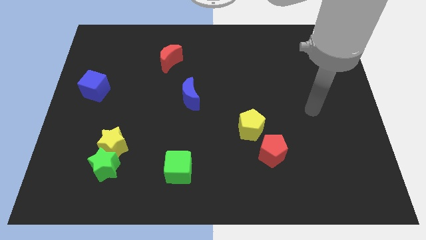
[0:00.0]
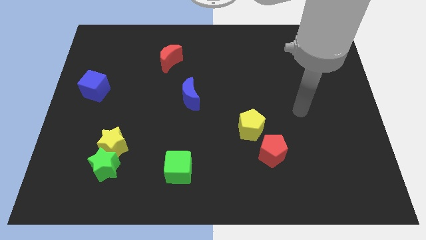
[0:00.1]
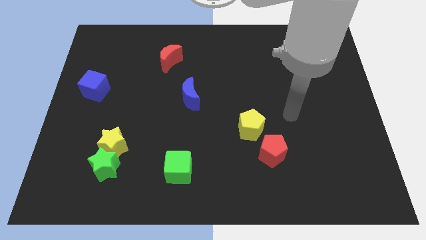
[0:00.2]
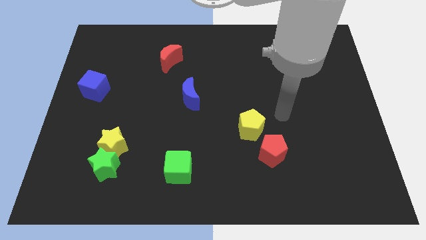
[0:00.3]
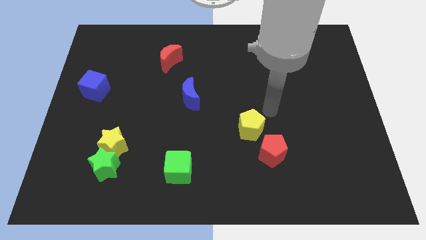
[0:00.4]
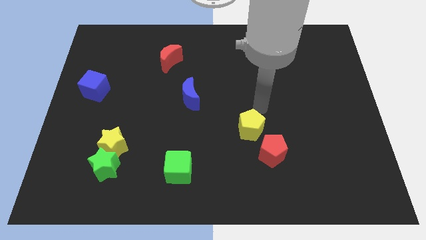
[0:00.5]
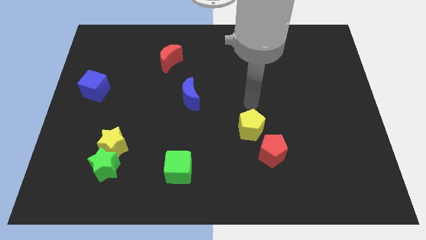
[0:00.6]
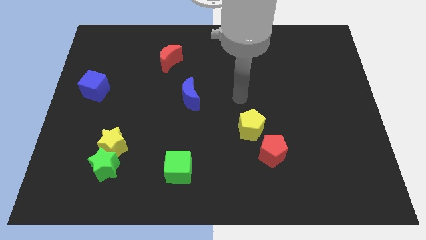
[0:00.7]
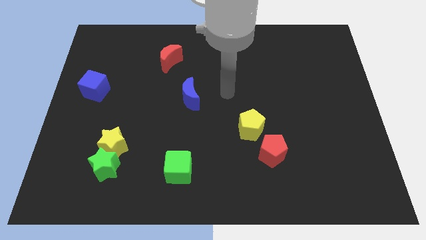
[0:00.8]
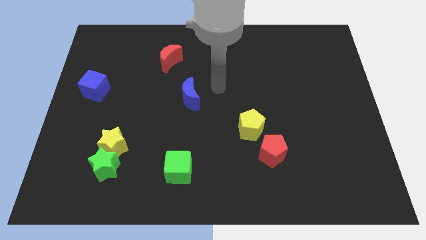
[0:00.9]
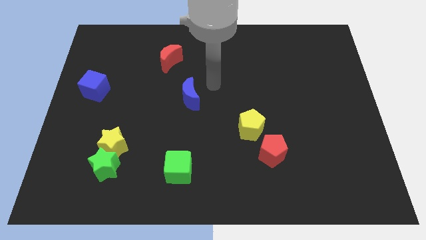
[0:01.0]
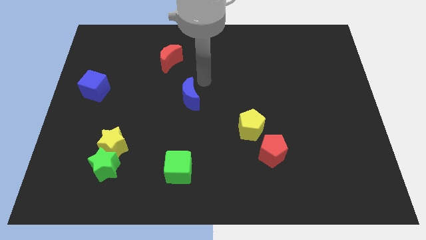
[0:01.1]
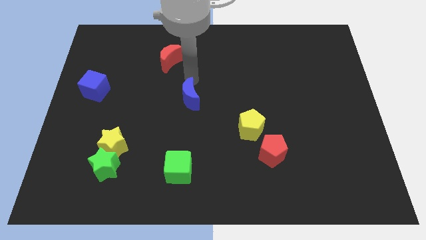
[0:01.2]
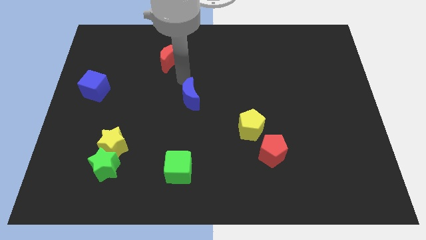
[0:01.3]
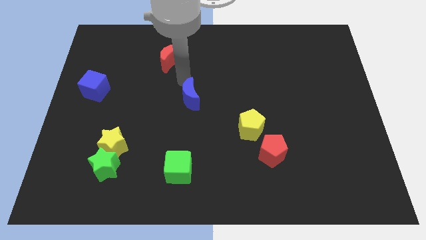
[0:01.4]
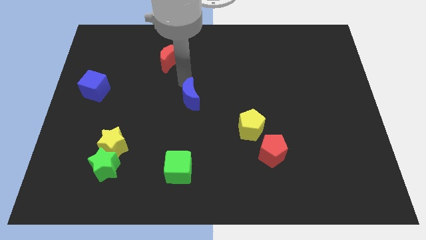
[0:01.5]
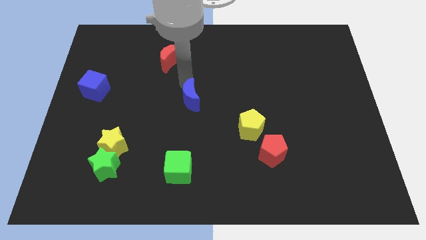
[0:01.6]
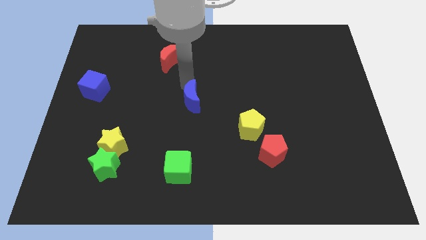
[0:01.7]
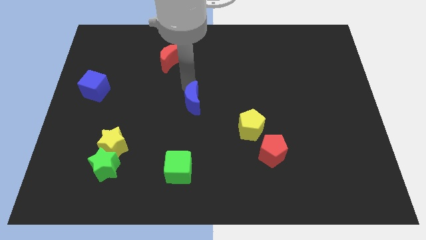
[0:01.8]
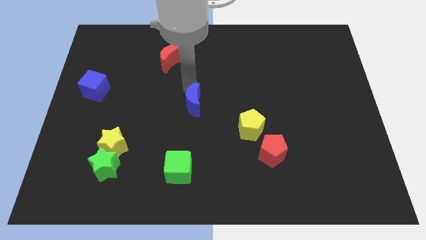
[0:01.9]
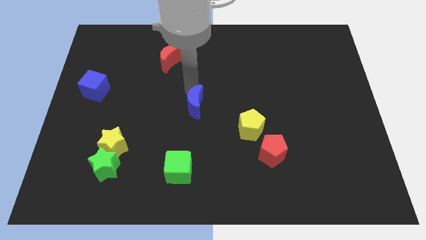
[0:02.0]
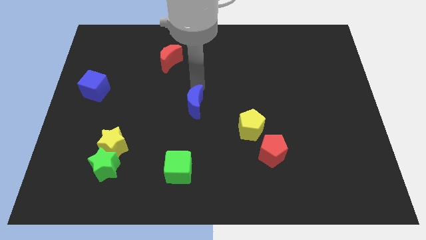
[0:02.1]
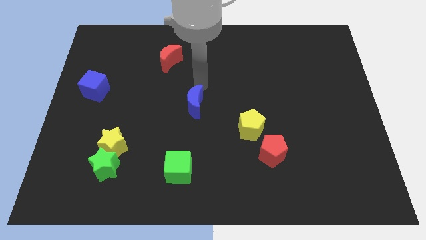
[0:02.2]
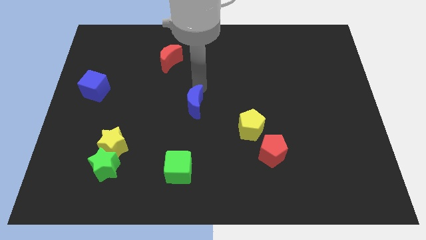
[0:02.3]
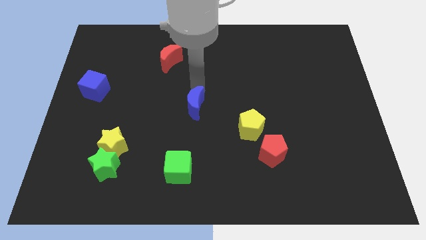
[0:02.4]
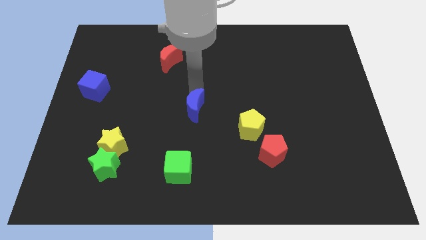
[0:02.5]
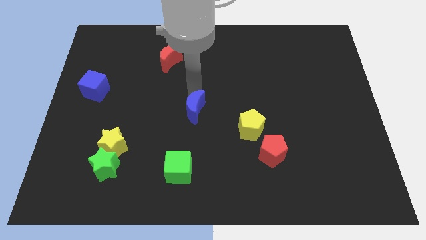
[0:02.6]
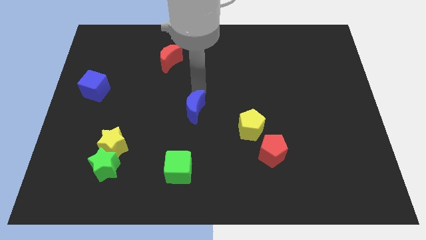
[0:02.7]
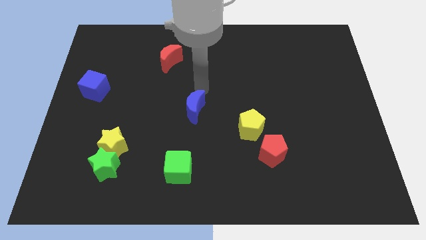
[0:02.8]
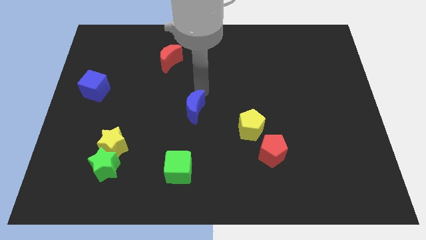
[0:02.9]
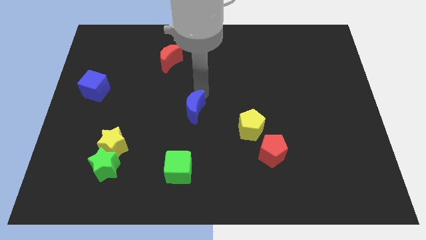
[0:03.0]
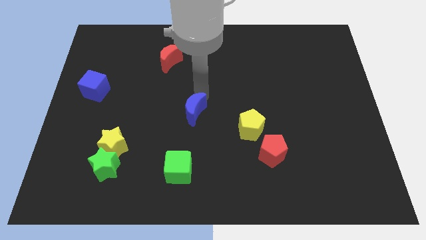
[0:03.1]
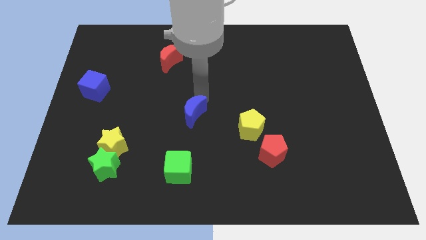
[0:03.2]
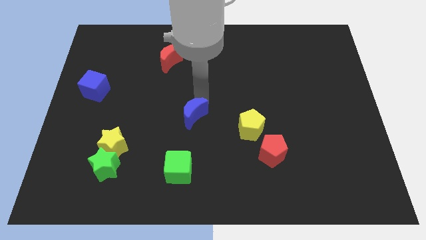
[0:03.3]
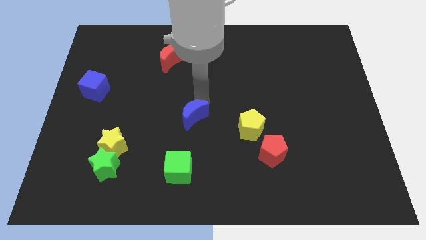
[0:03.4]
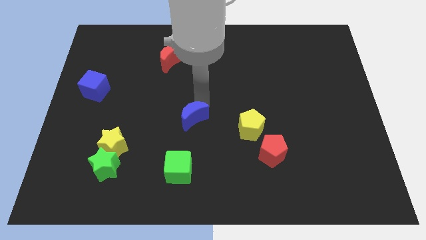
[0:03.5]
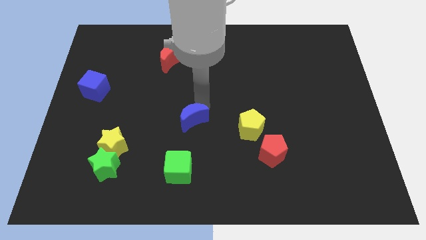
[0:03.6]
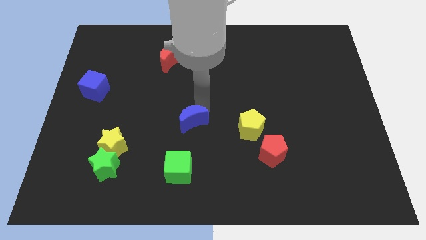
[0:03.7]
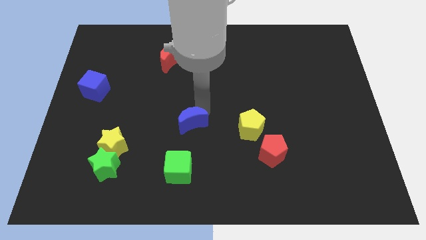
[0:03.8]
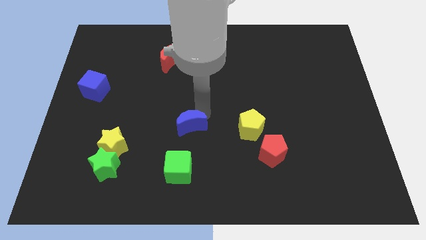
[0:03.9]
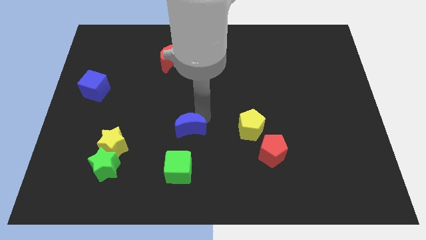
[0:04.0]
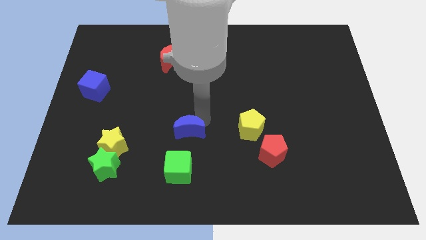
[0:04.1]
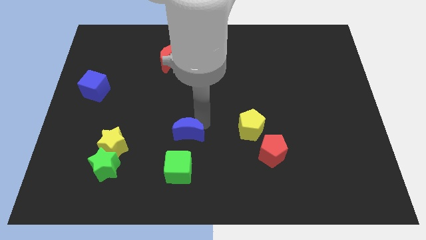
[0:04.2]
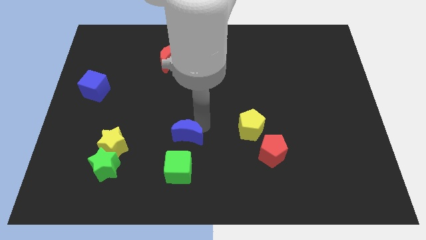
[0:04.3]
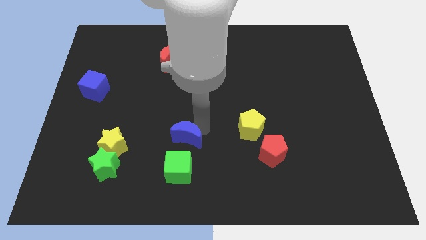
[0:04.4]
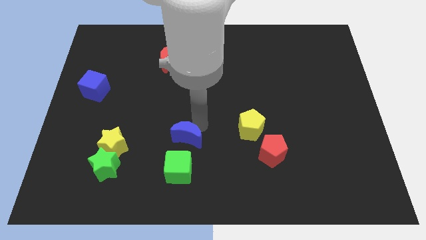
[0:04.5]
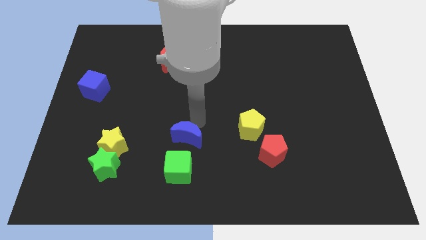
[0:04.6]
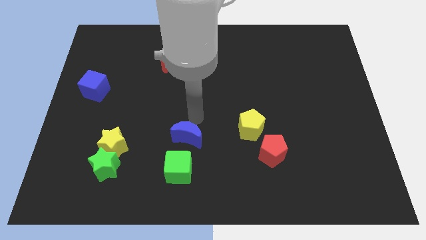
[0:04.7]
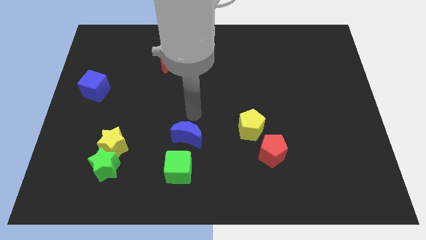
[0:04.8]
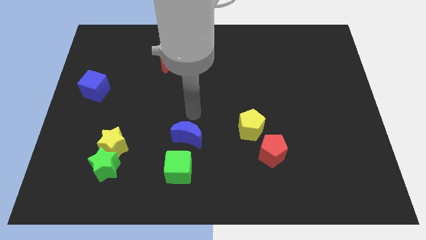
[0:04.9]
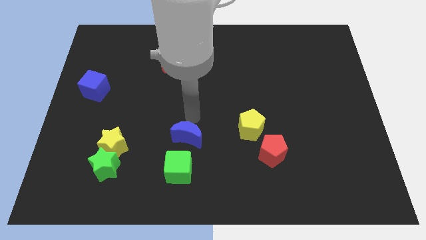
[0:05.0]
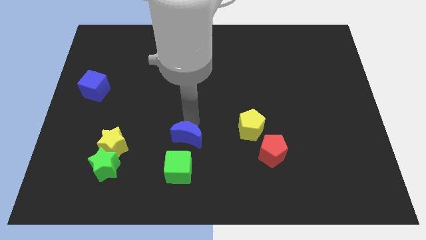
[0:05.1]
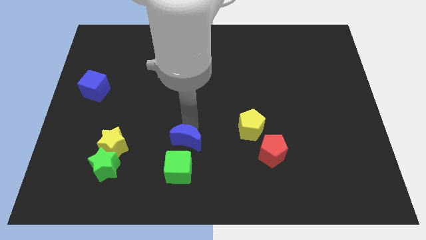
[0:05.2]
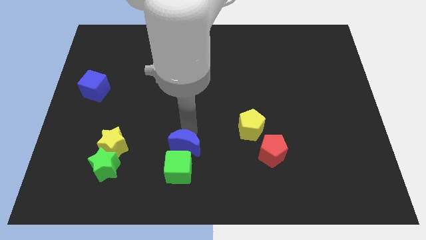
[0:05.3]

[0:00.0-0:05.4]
push the blue moon next to the green cube

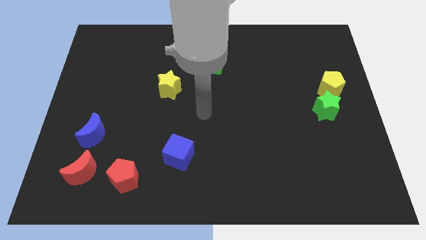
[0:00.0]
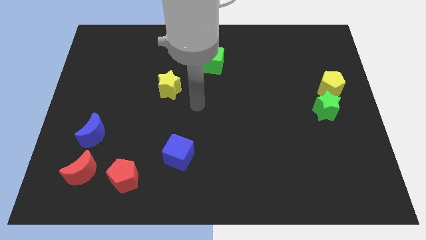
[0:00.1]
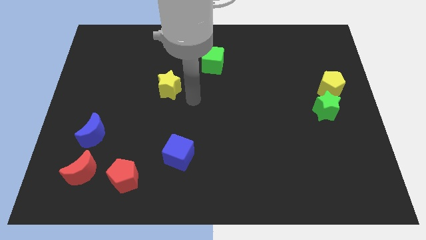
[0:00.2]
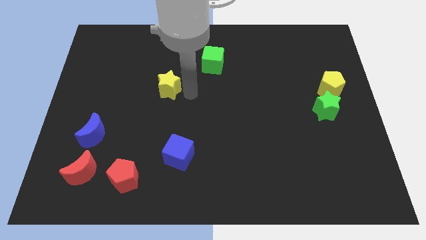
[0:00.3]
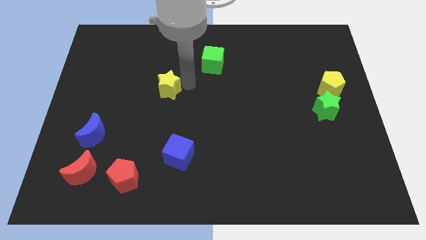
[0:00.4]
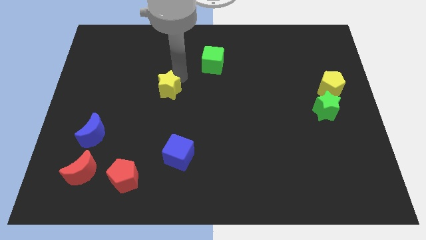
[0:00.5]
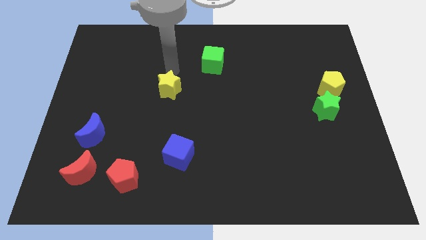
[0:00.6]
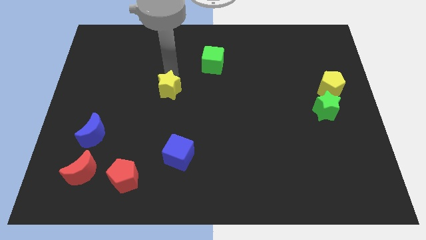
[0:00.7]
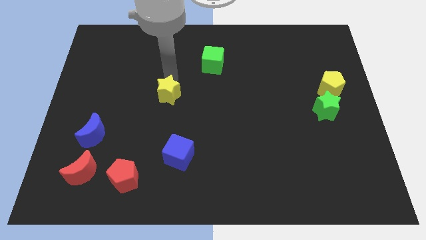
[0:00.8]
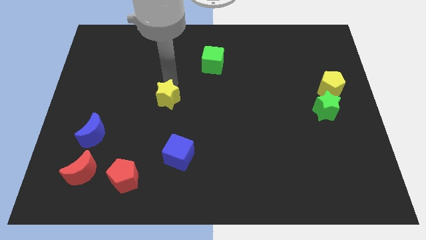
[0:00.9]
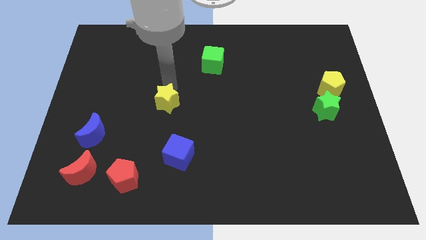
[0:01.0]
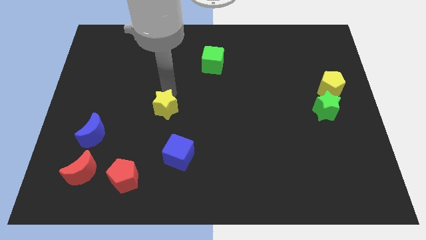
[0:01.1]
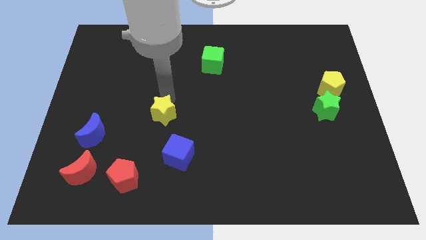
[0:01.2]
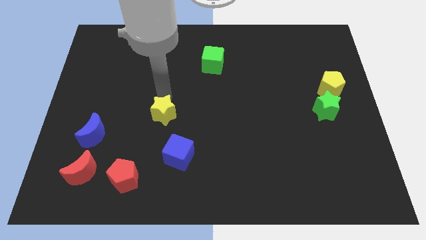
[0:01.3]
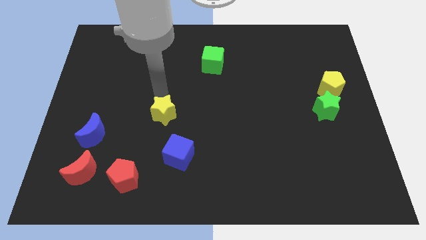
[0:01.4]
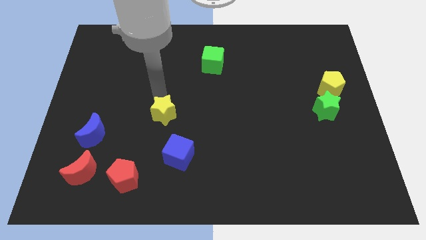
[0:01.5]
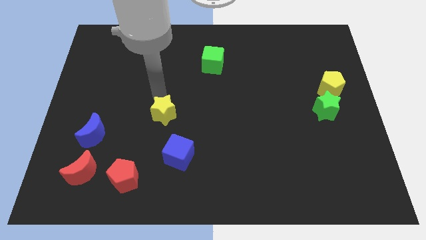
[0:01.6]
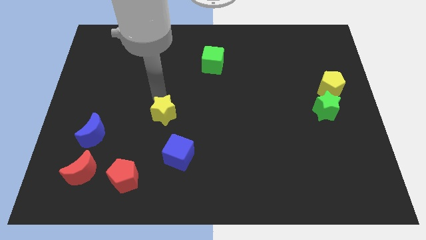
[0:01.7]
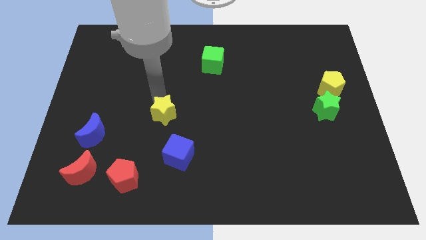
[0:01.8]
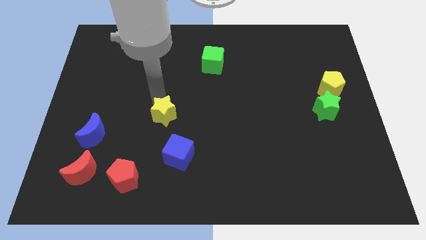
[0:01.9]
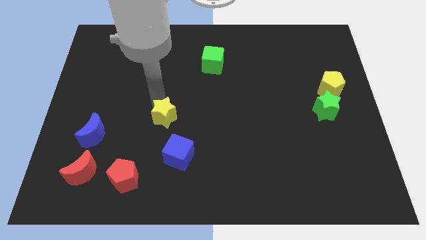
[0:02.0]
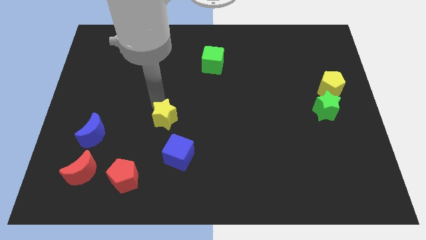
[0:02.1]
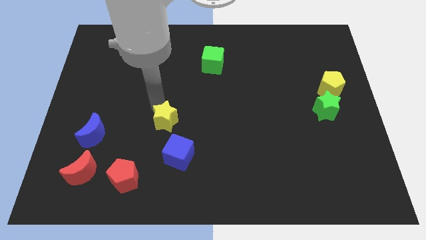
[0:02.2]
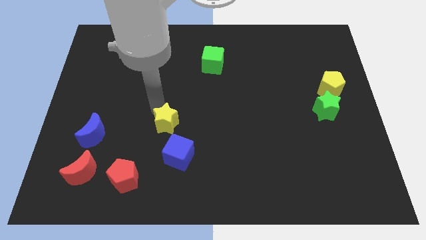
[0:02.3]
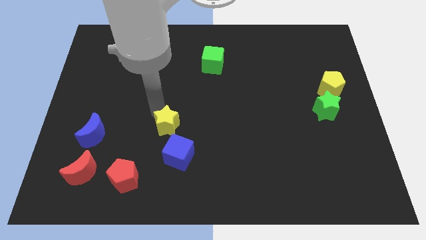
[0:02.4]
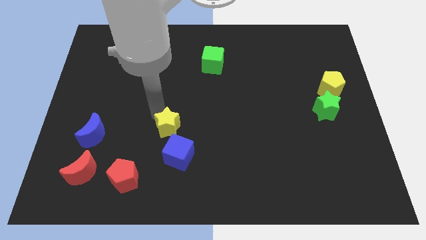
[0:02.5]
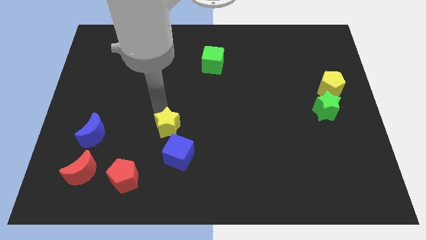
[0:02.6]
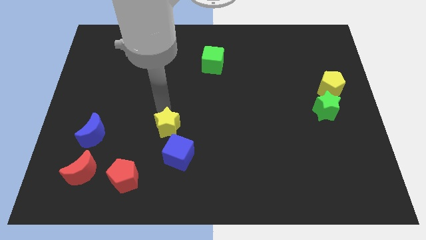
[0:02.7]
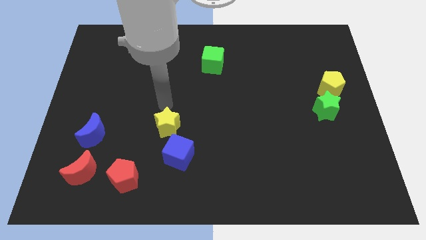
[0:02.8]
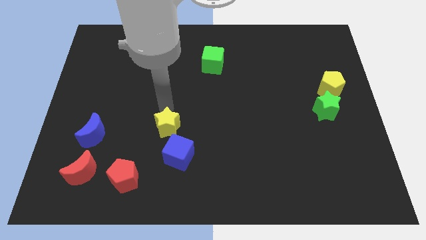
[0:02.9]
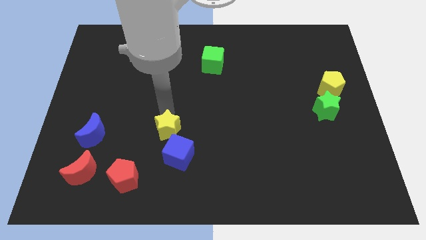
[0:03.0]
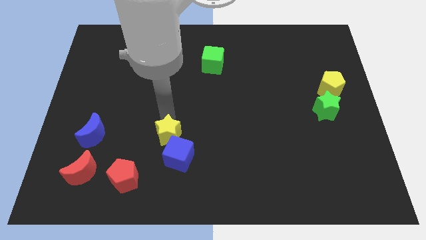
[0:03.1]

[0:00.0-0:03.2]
put the yellow star towards the blue cube
